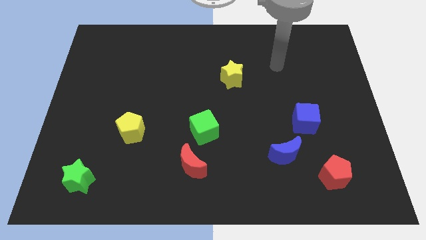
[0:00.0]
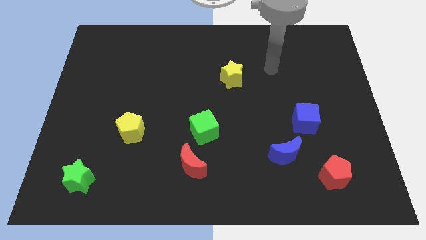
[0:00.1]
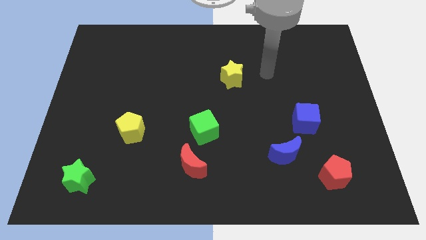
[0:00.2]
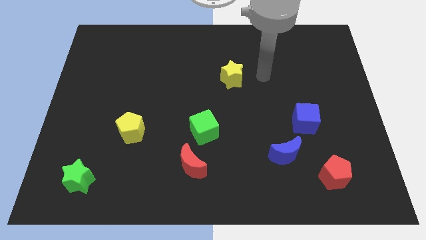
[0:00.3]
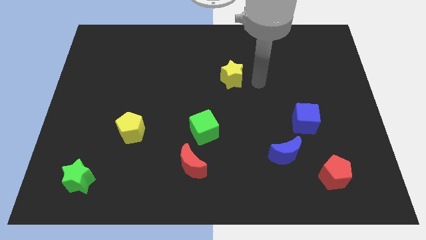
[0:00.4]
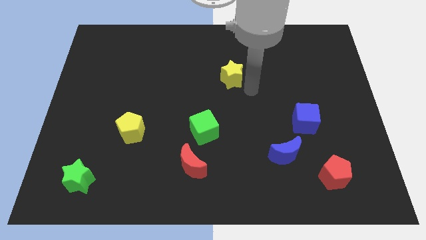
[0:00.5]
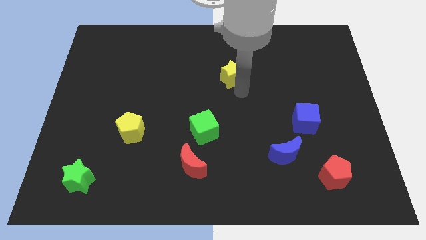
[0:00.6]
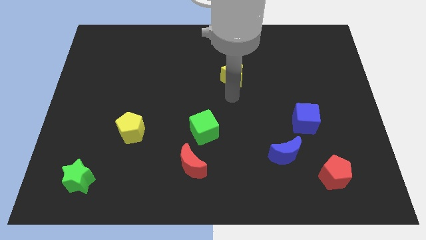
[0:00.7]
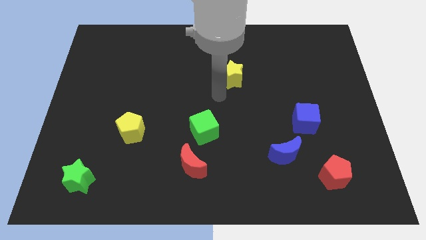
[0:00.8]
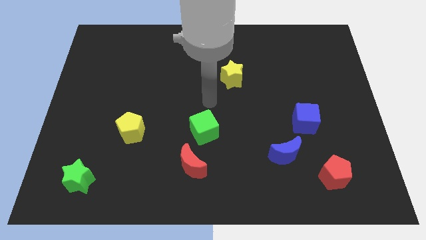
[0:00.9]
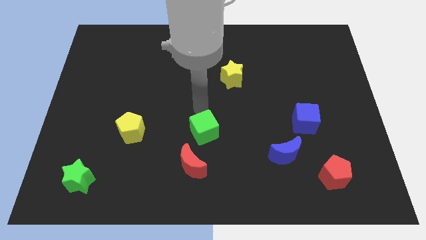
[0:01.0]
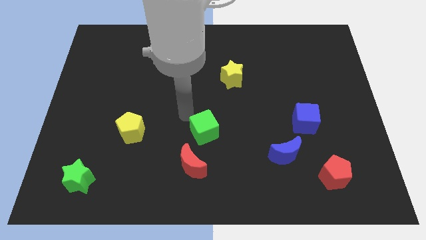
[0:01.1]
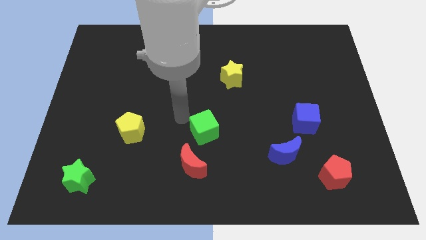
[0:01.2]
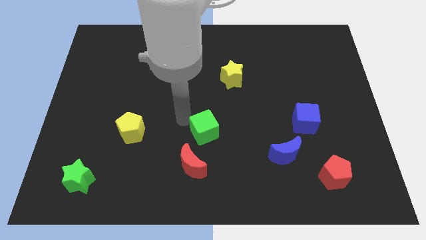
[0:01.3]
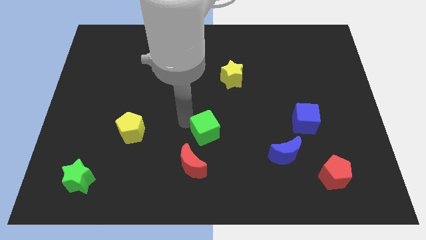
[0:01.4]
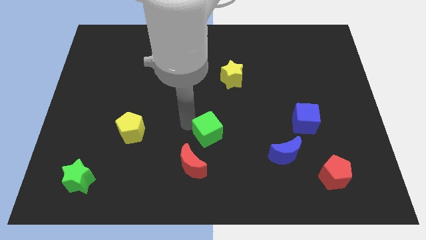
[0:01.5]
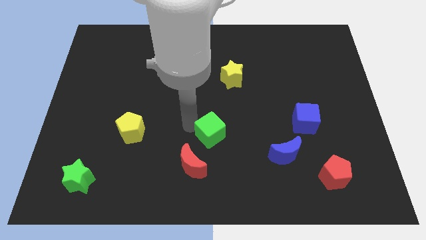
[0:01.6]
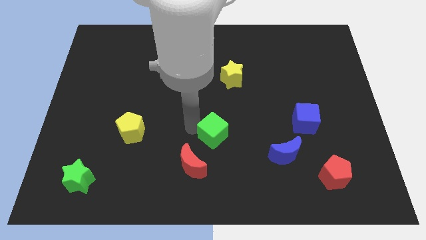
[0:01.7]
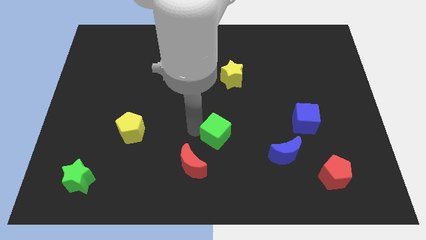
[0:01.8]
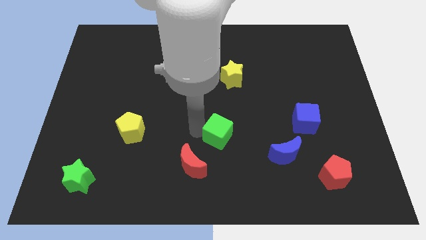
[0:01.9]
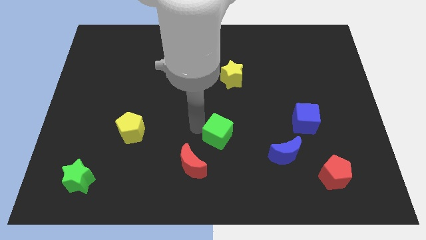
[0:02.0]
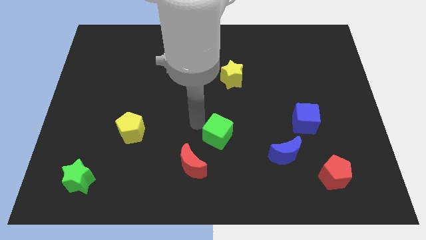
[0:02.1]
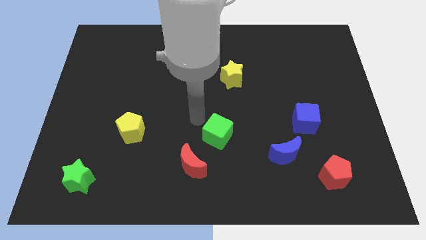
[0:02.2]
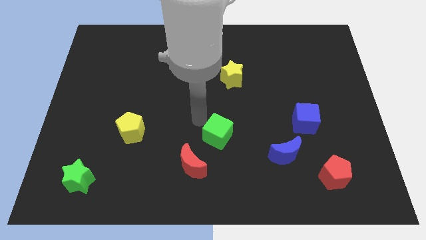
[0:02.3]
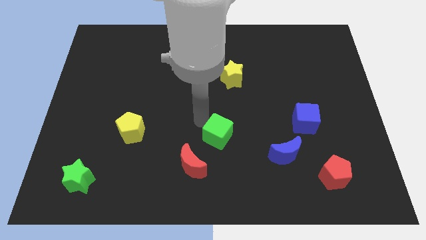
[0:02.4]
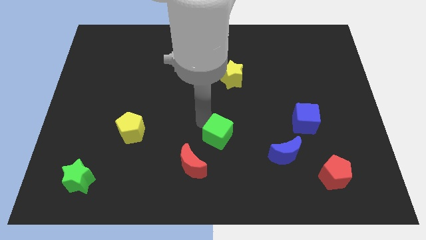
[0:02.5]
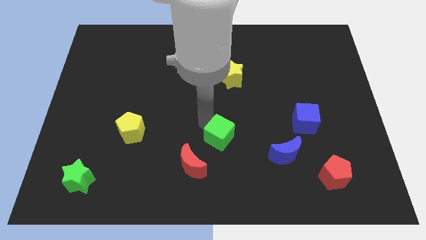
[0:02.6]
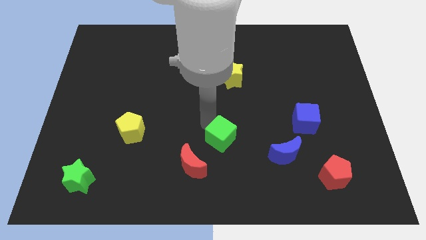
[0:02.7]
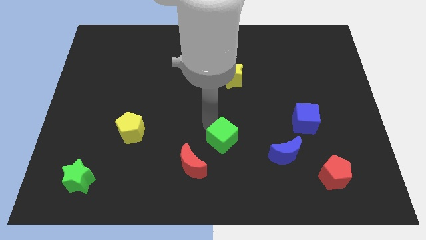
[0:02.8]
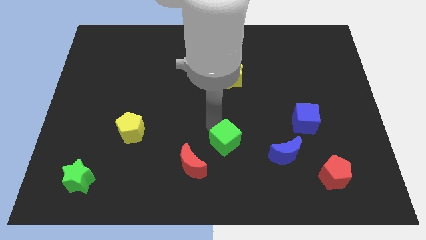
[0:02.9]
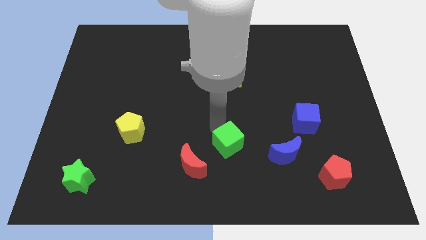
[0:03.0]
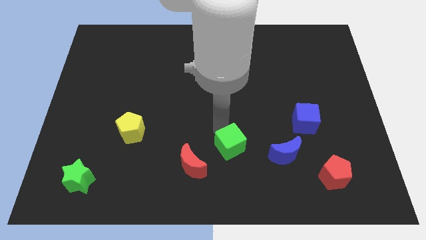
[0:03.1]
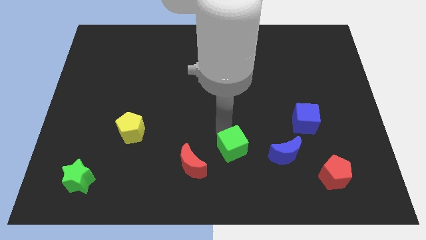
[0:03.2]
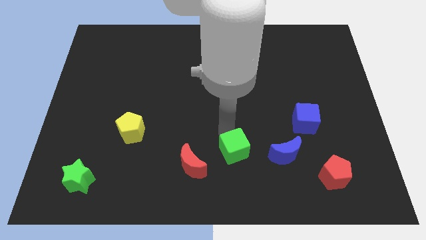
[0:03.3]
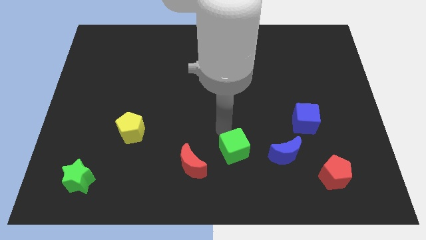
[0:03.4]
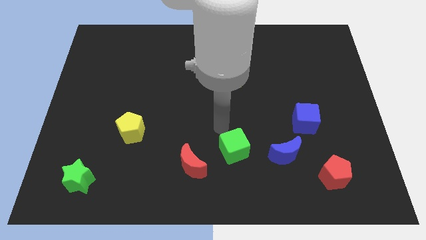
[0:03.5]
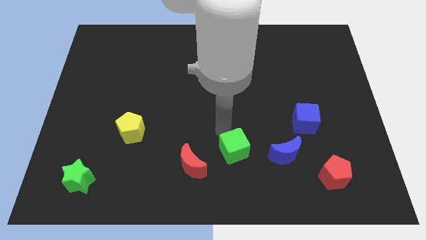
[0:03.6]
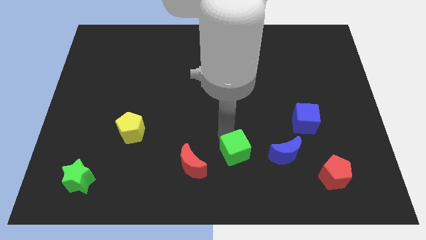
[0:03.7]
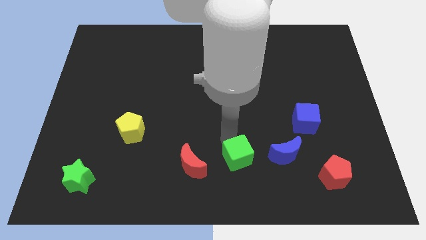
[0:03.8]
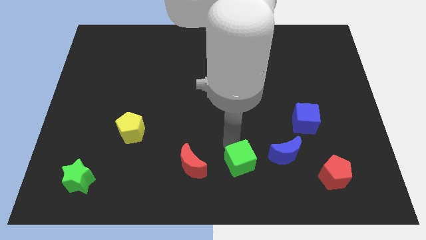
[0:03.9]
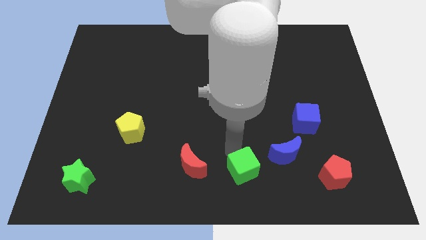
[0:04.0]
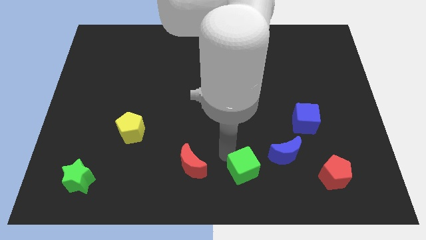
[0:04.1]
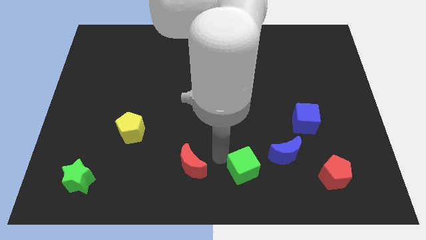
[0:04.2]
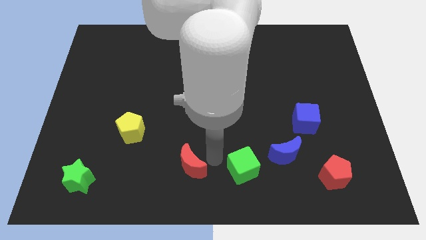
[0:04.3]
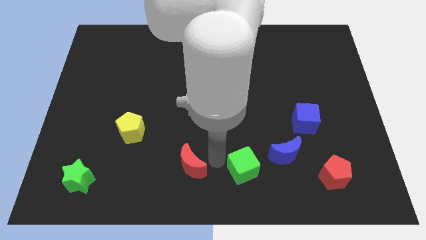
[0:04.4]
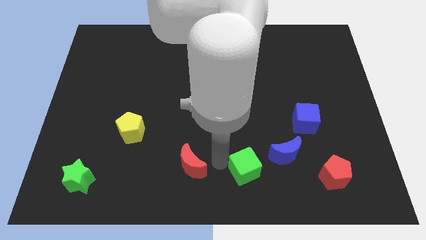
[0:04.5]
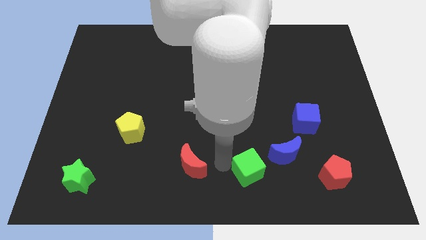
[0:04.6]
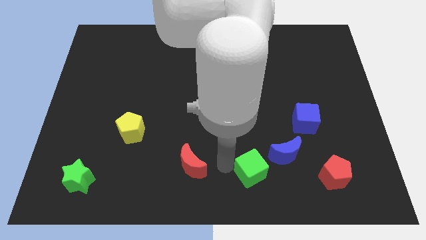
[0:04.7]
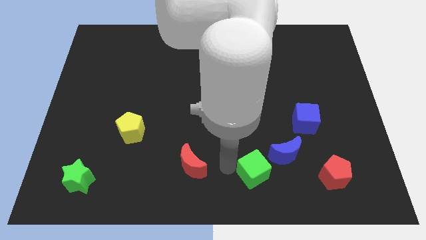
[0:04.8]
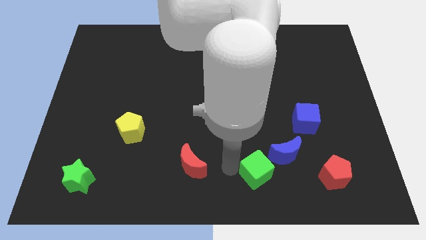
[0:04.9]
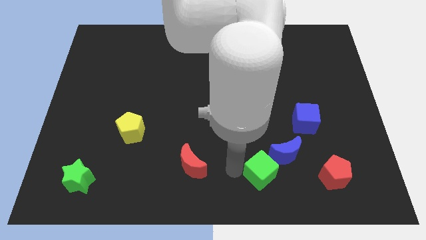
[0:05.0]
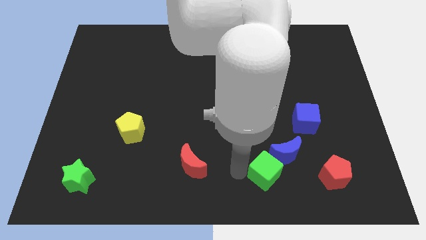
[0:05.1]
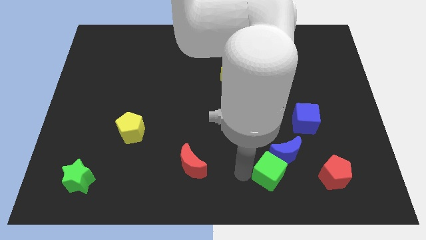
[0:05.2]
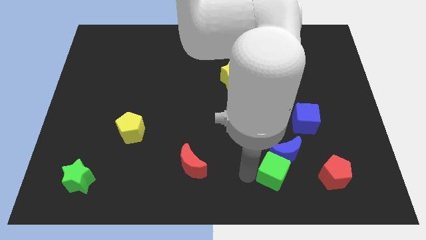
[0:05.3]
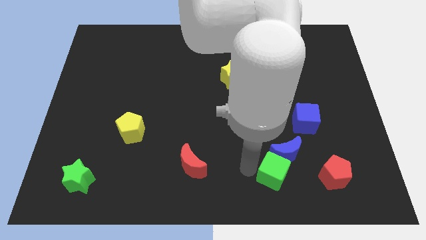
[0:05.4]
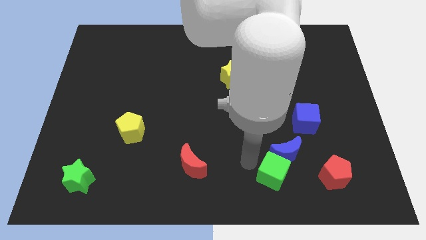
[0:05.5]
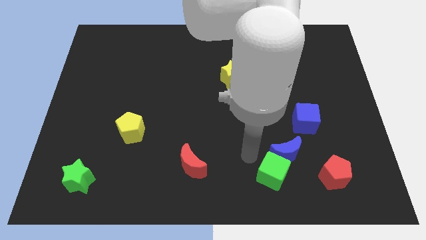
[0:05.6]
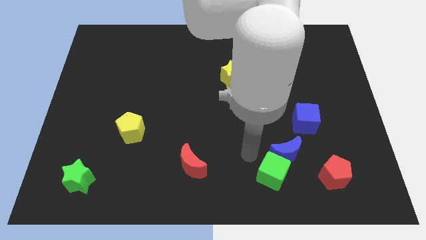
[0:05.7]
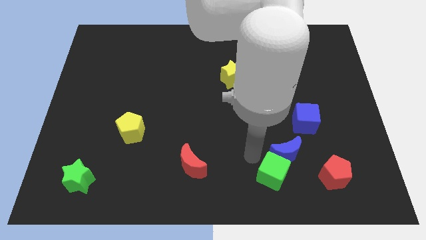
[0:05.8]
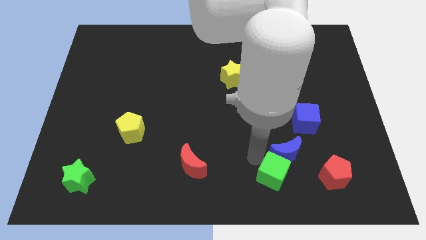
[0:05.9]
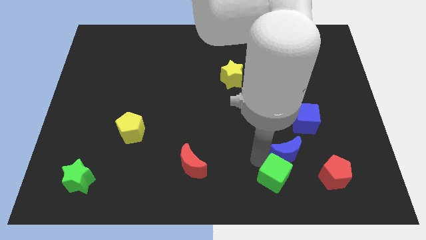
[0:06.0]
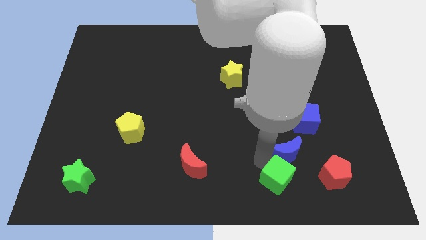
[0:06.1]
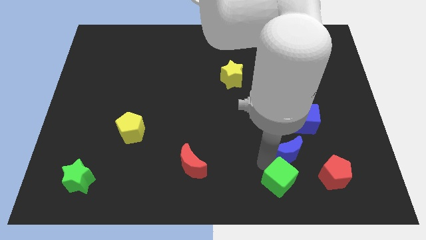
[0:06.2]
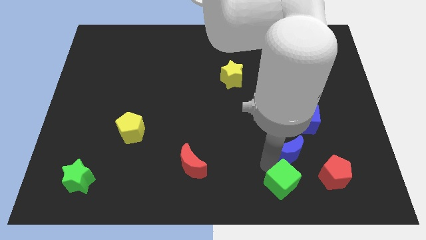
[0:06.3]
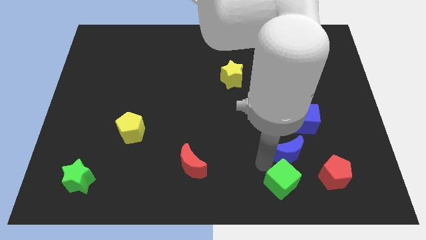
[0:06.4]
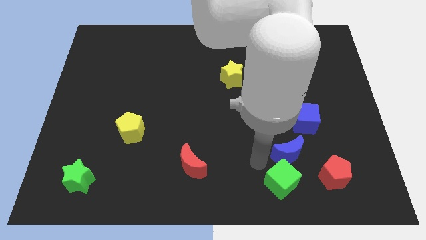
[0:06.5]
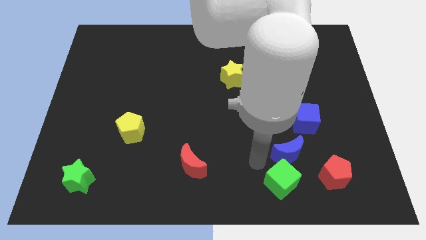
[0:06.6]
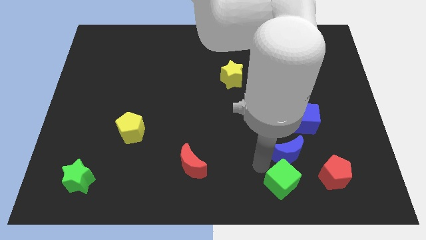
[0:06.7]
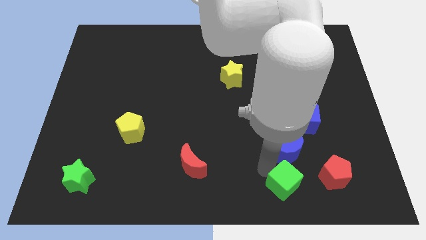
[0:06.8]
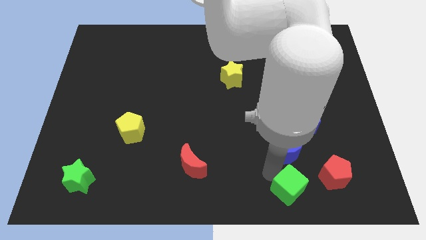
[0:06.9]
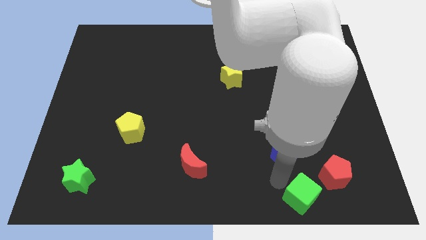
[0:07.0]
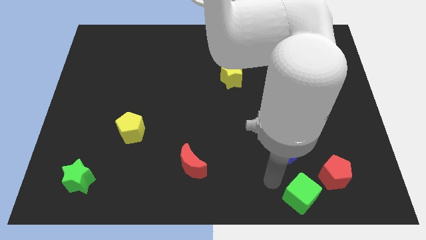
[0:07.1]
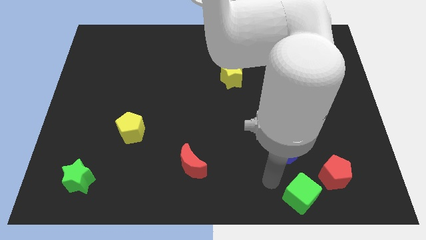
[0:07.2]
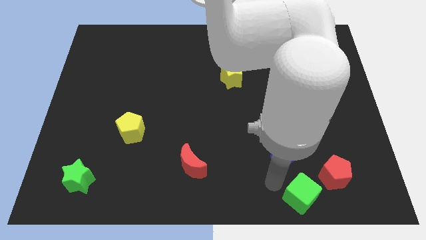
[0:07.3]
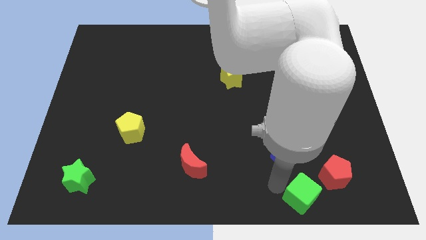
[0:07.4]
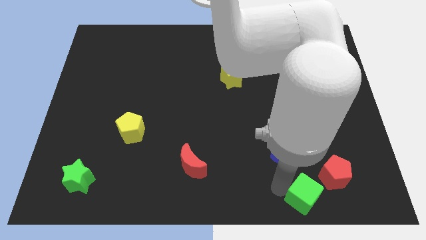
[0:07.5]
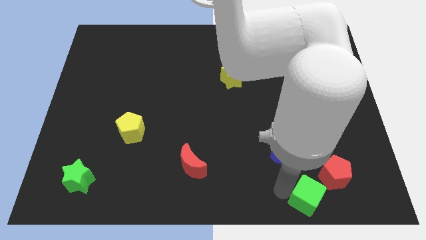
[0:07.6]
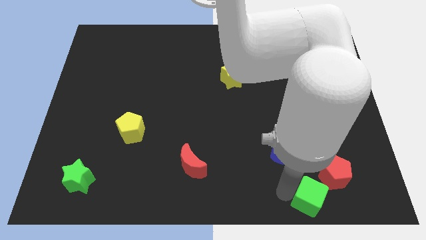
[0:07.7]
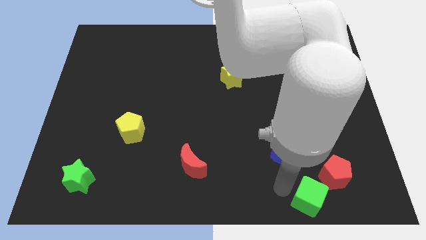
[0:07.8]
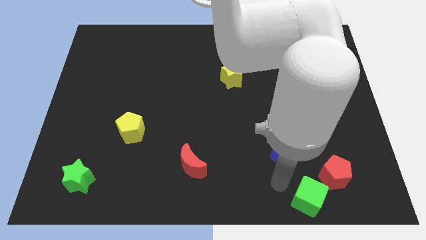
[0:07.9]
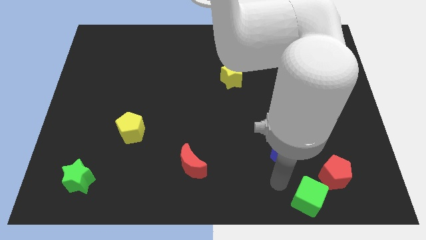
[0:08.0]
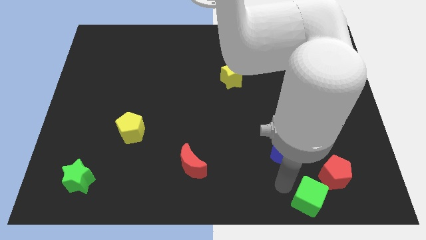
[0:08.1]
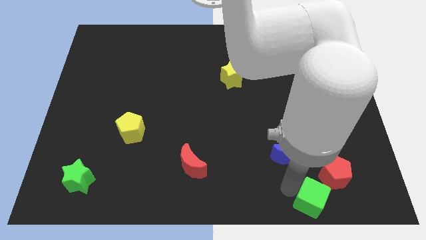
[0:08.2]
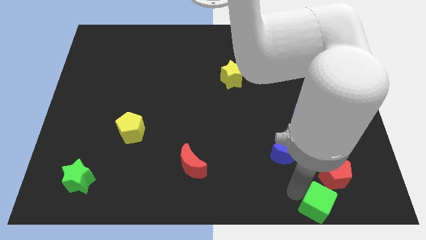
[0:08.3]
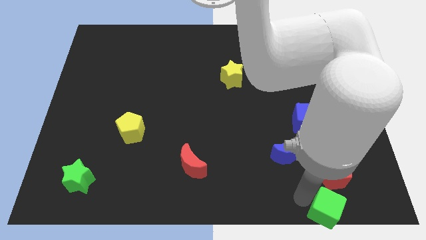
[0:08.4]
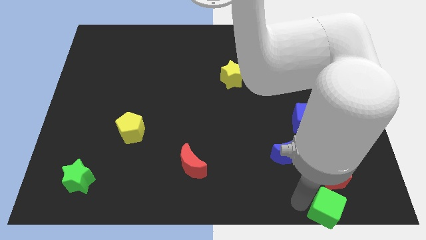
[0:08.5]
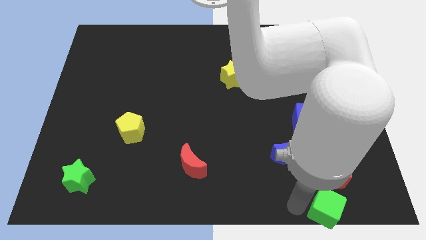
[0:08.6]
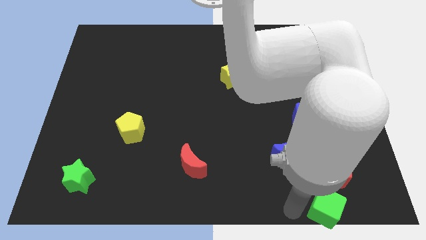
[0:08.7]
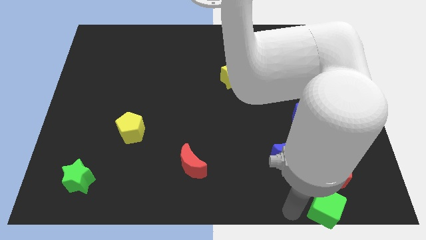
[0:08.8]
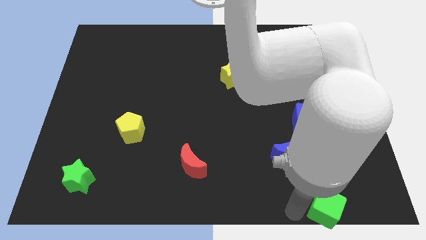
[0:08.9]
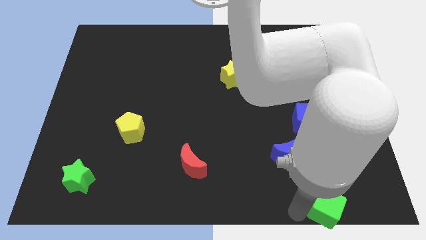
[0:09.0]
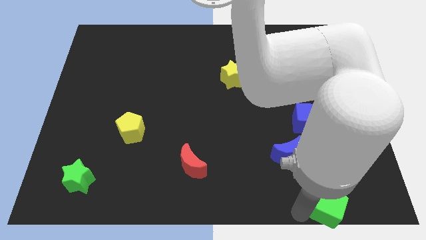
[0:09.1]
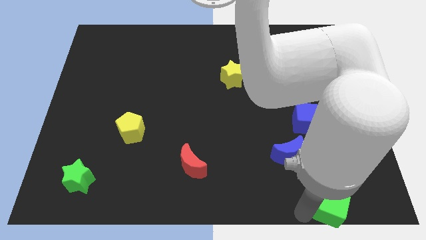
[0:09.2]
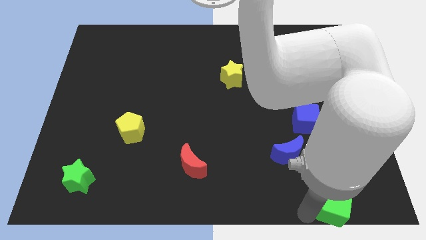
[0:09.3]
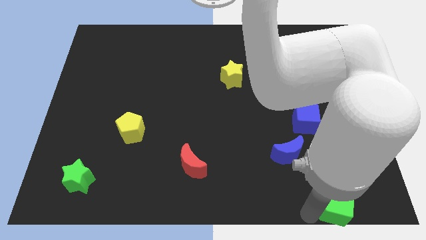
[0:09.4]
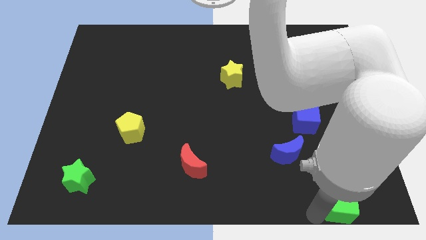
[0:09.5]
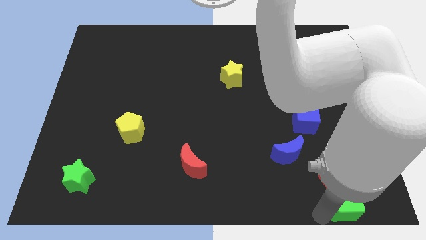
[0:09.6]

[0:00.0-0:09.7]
move the green cube to the lower right corner
